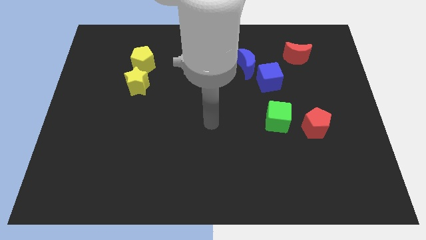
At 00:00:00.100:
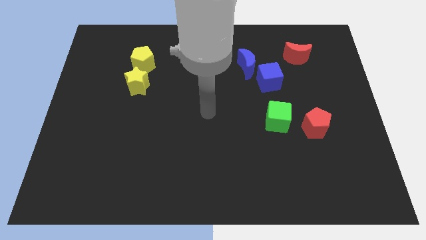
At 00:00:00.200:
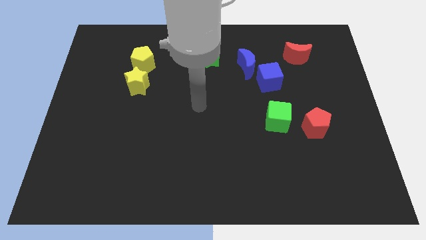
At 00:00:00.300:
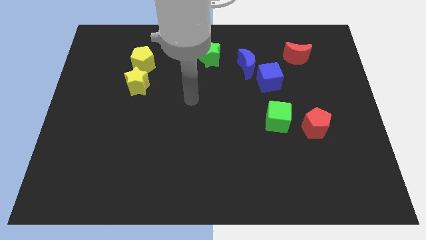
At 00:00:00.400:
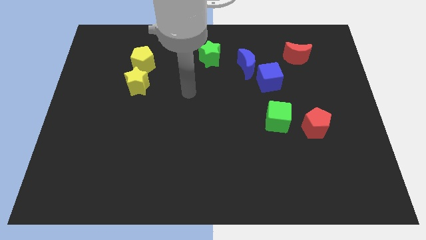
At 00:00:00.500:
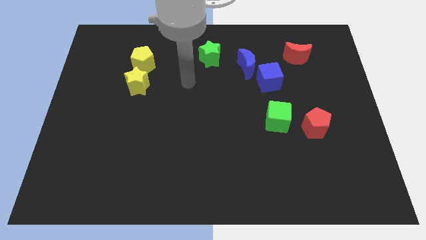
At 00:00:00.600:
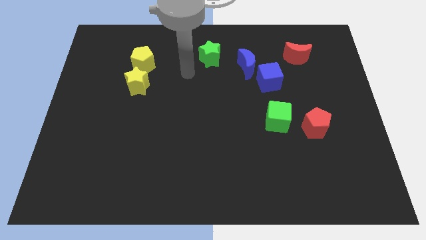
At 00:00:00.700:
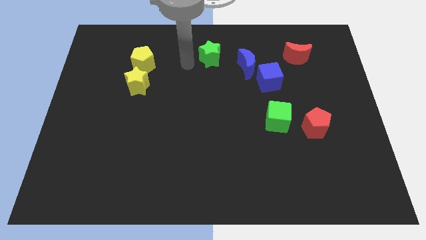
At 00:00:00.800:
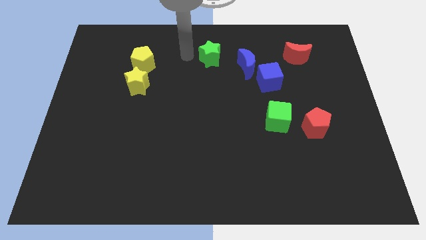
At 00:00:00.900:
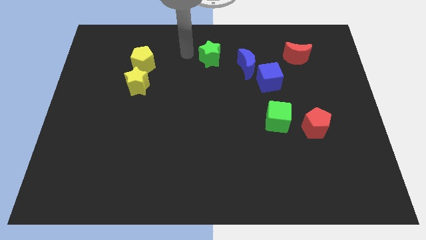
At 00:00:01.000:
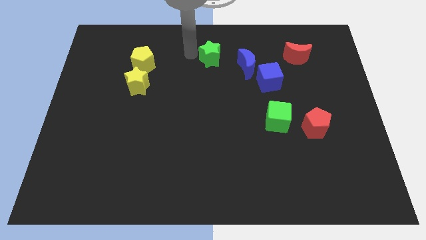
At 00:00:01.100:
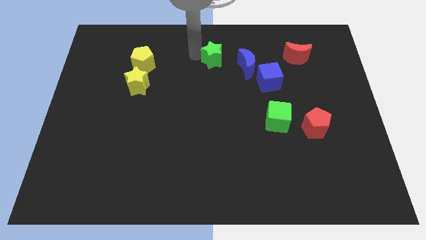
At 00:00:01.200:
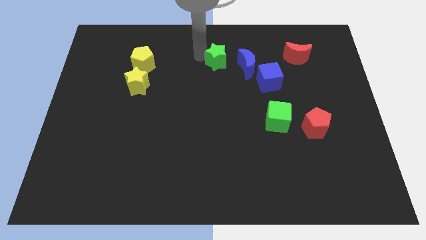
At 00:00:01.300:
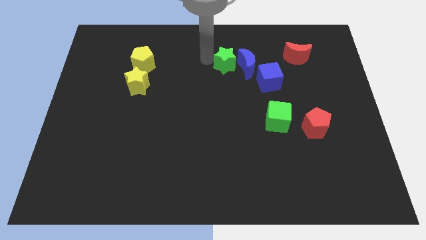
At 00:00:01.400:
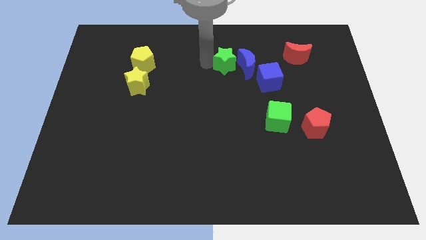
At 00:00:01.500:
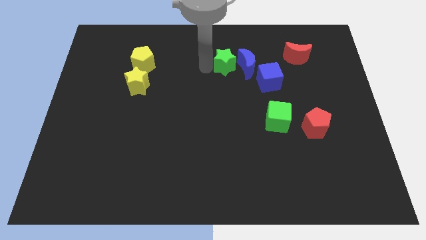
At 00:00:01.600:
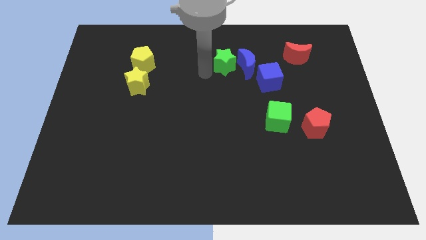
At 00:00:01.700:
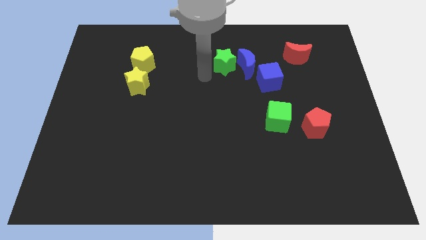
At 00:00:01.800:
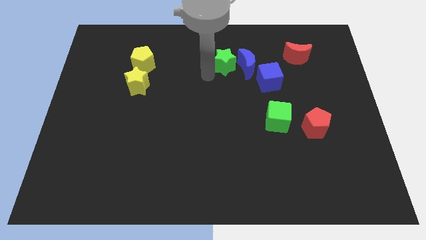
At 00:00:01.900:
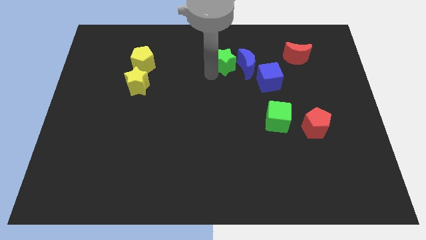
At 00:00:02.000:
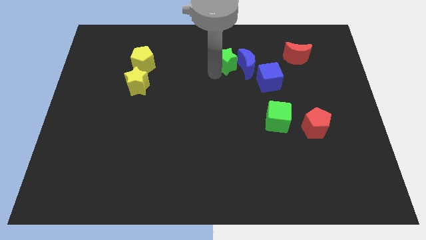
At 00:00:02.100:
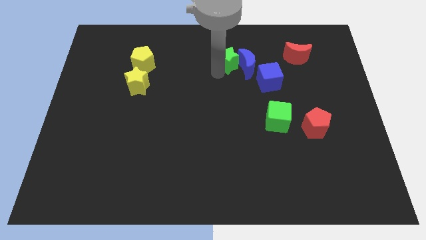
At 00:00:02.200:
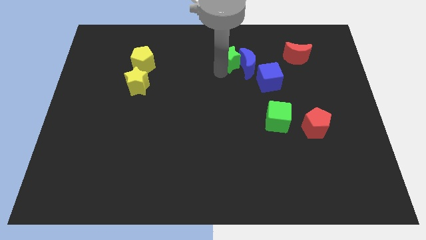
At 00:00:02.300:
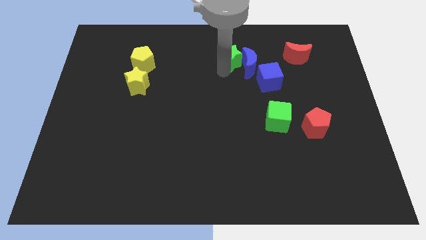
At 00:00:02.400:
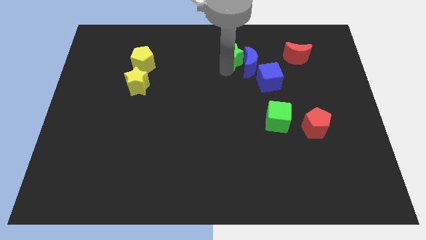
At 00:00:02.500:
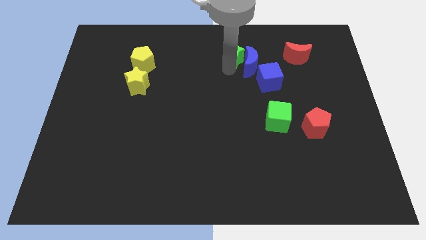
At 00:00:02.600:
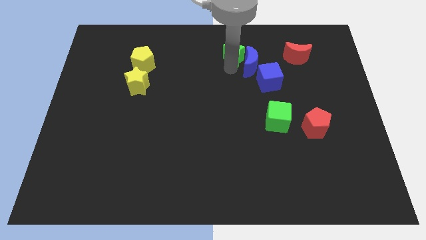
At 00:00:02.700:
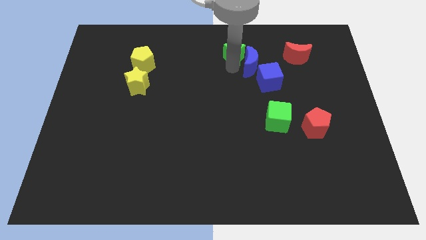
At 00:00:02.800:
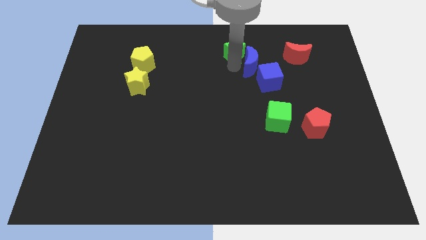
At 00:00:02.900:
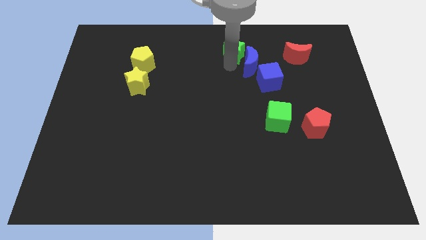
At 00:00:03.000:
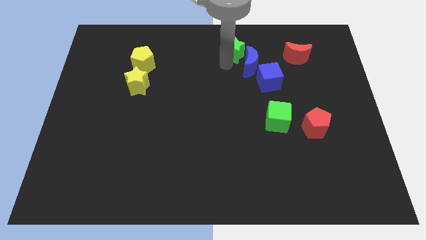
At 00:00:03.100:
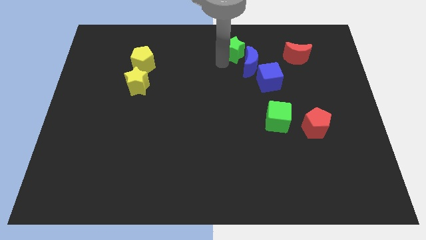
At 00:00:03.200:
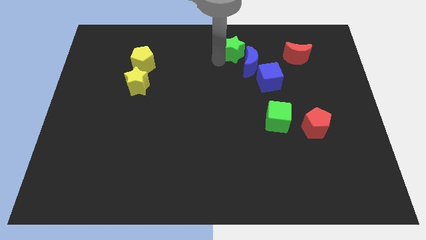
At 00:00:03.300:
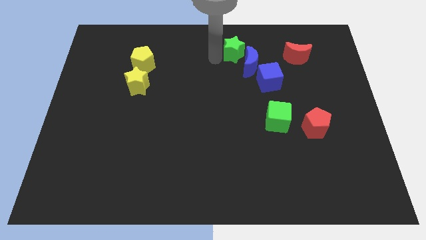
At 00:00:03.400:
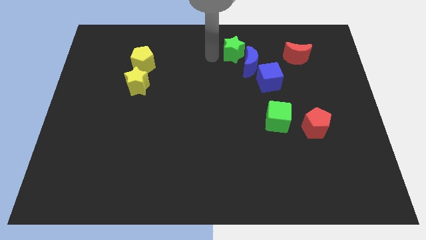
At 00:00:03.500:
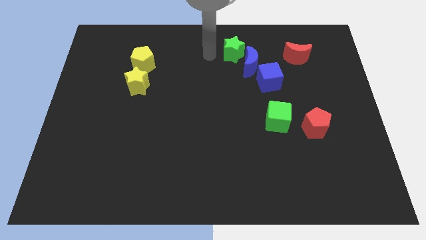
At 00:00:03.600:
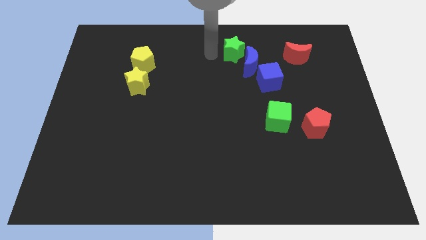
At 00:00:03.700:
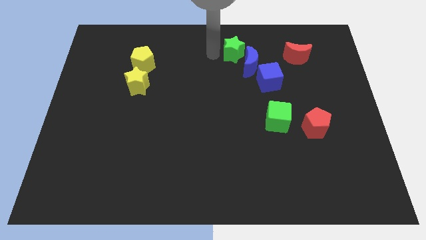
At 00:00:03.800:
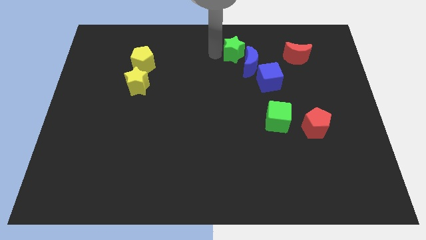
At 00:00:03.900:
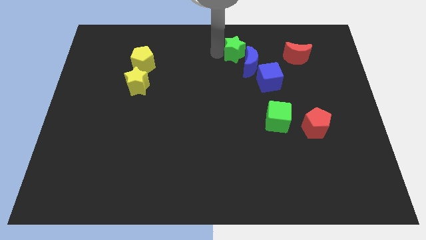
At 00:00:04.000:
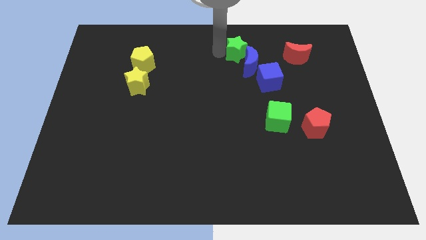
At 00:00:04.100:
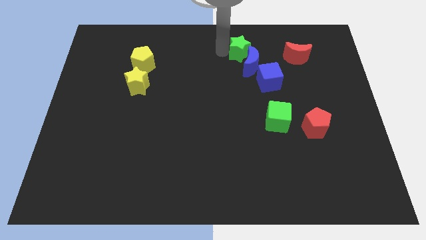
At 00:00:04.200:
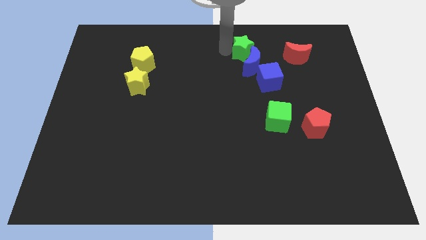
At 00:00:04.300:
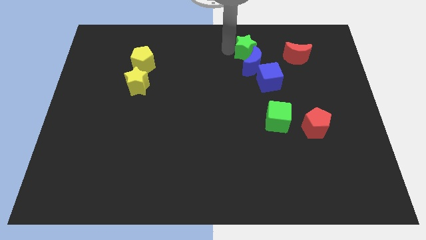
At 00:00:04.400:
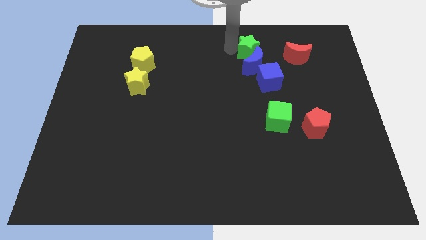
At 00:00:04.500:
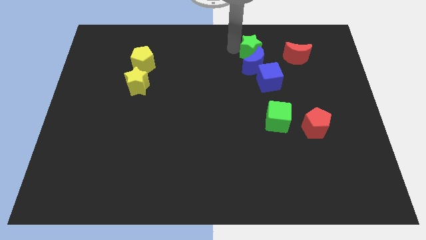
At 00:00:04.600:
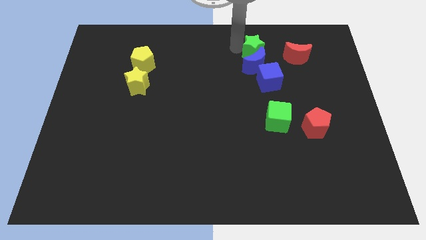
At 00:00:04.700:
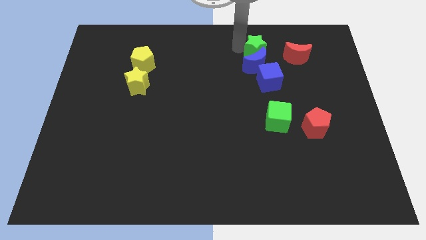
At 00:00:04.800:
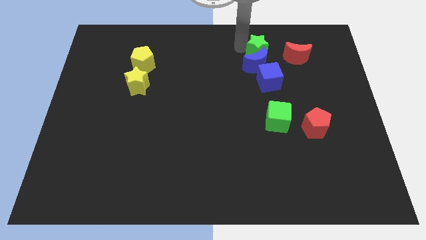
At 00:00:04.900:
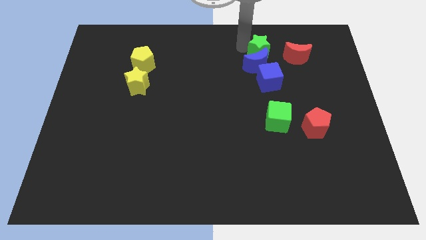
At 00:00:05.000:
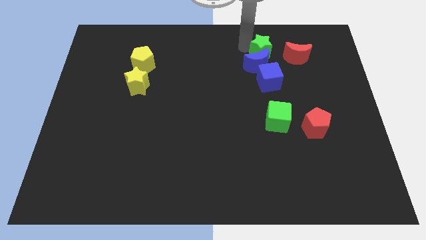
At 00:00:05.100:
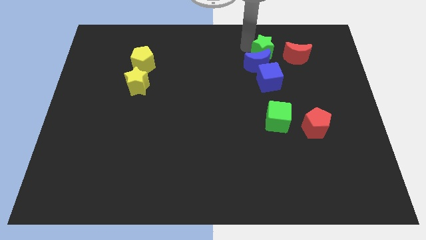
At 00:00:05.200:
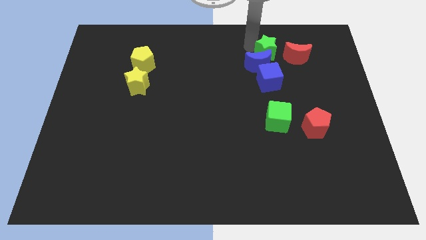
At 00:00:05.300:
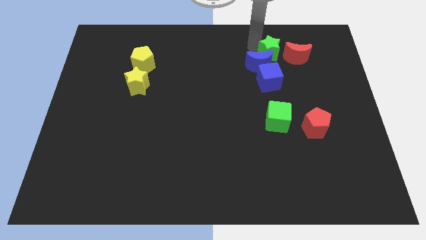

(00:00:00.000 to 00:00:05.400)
put the green star to the right side of the blue moon

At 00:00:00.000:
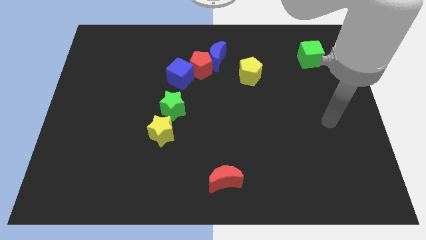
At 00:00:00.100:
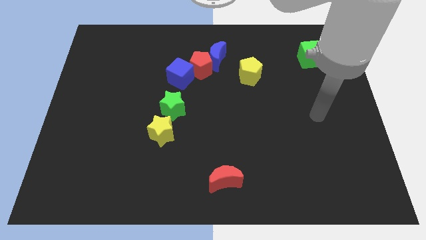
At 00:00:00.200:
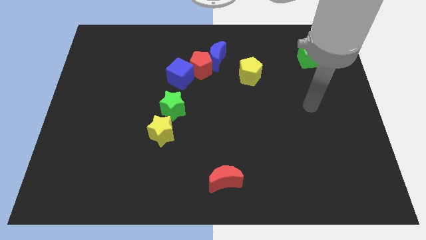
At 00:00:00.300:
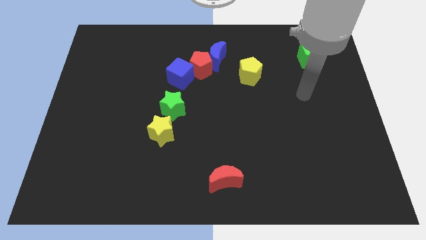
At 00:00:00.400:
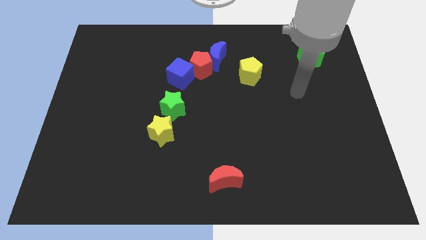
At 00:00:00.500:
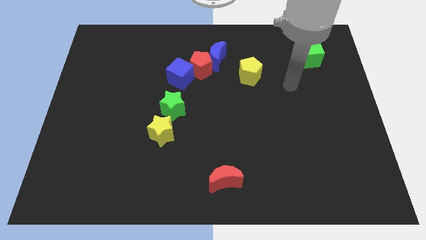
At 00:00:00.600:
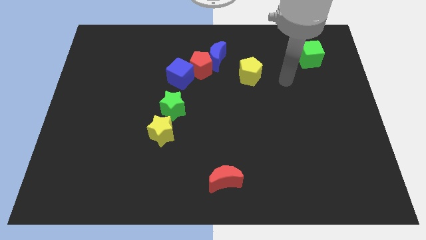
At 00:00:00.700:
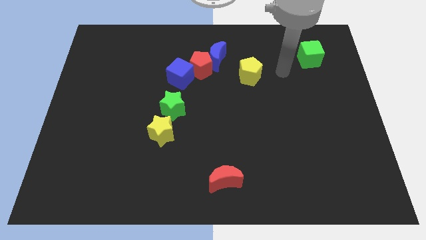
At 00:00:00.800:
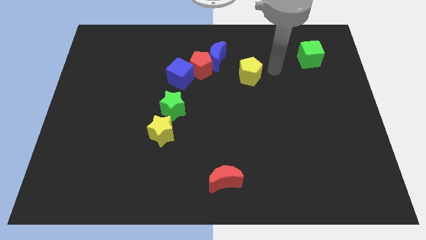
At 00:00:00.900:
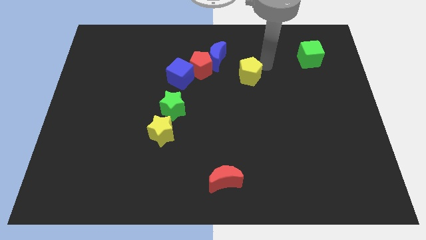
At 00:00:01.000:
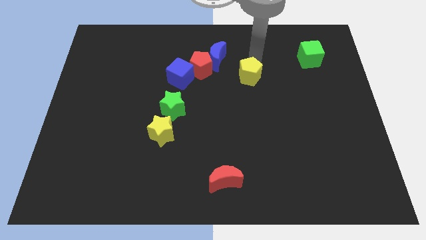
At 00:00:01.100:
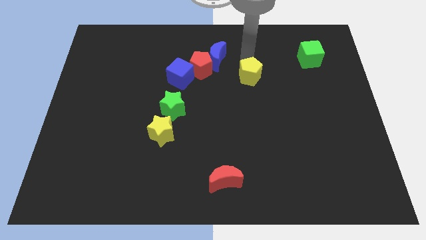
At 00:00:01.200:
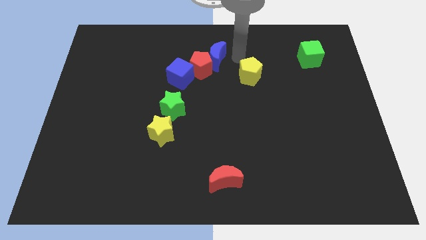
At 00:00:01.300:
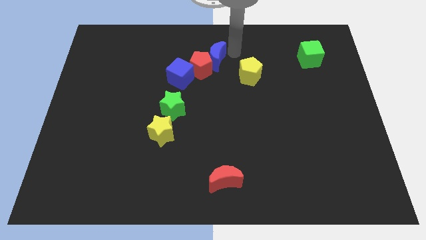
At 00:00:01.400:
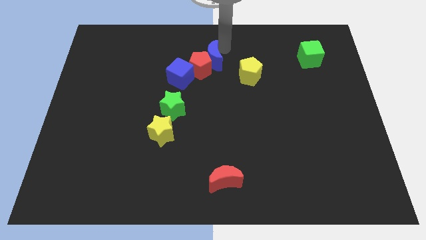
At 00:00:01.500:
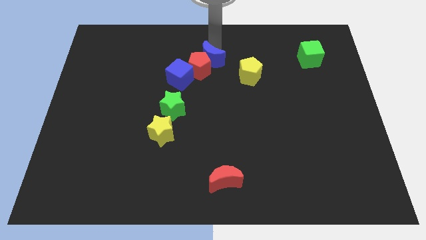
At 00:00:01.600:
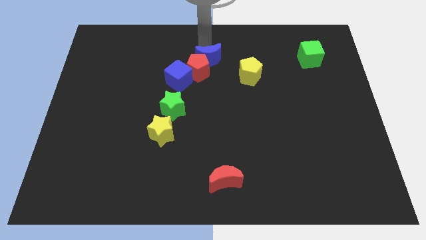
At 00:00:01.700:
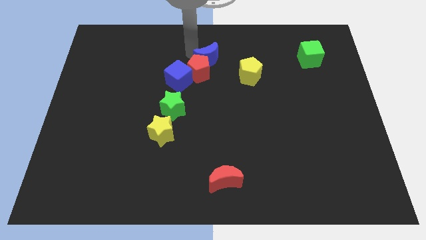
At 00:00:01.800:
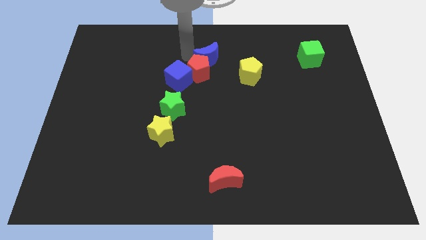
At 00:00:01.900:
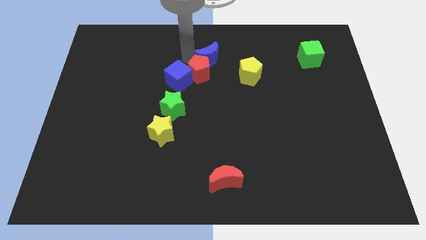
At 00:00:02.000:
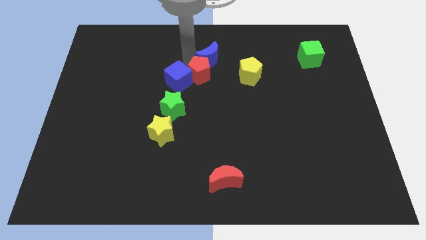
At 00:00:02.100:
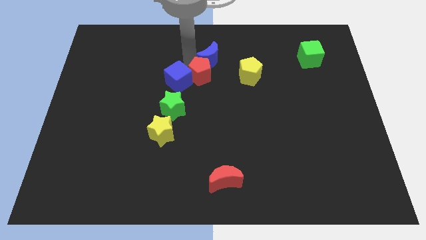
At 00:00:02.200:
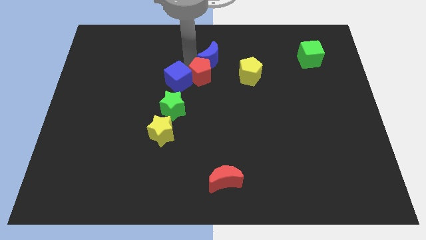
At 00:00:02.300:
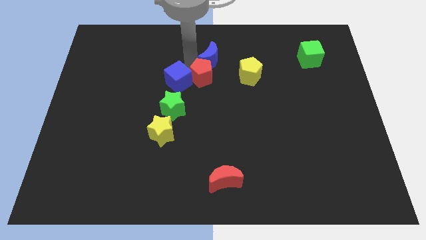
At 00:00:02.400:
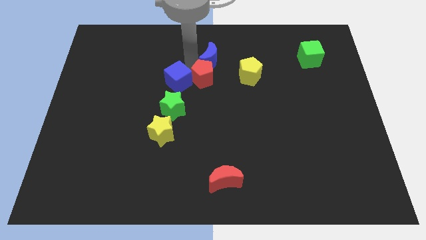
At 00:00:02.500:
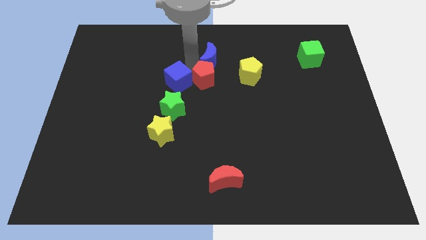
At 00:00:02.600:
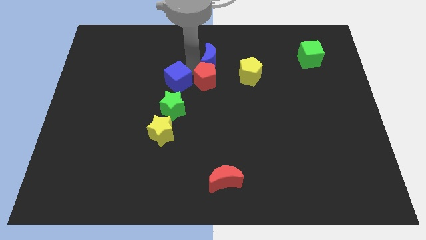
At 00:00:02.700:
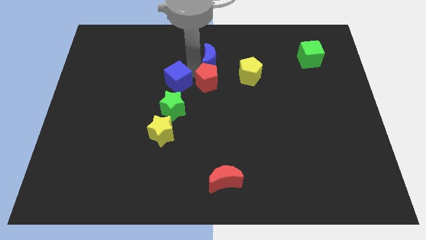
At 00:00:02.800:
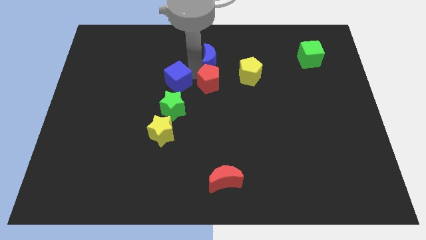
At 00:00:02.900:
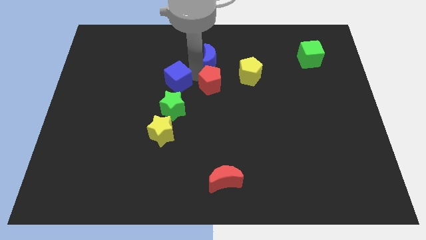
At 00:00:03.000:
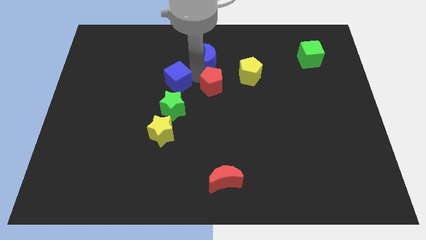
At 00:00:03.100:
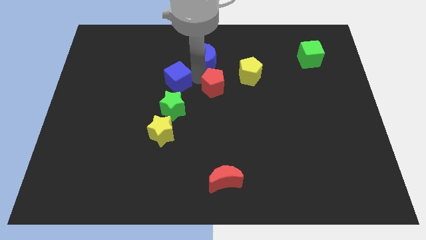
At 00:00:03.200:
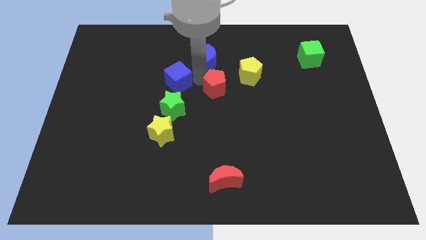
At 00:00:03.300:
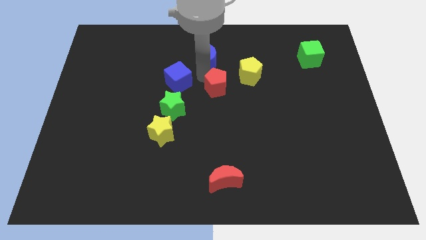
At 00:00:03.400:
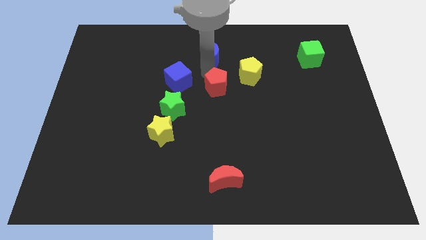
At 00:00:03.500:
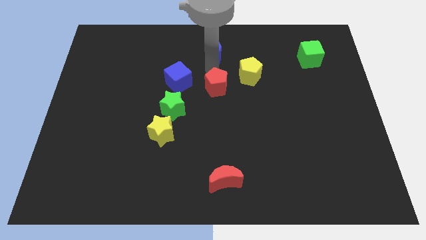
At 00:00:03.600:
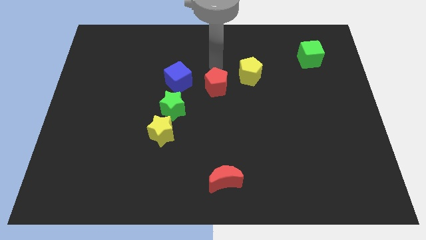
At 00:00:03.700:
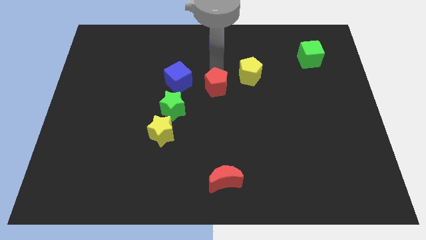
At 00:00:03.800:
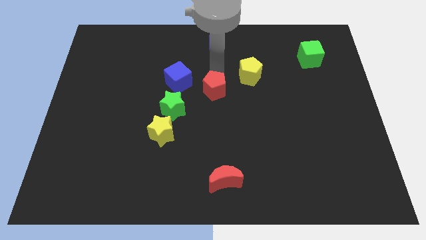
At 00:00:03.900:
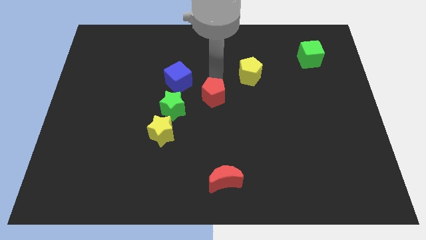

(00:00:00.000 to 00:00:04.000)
put the red pentagon to the right of the green star
